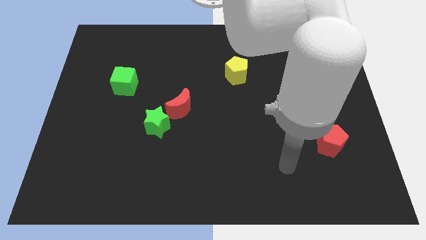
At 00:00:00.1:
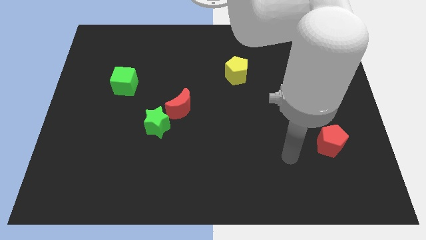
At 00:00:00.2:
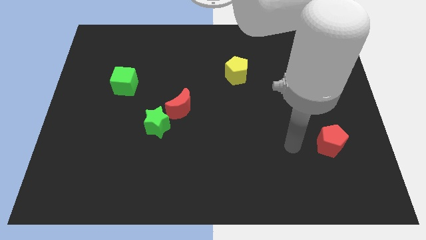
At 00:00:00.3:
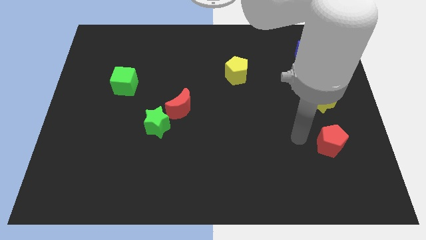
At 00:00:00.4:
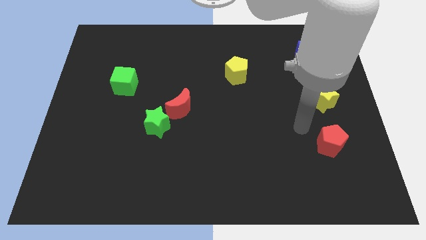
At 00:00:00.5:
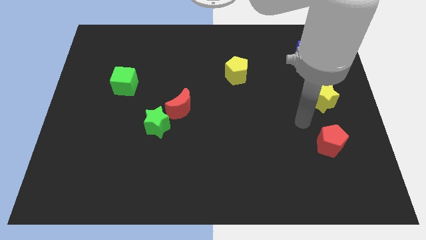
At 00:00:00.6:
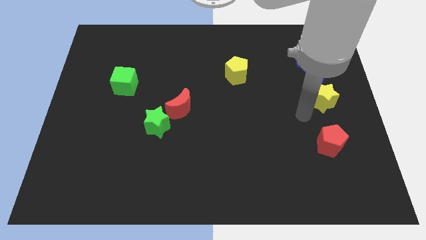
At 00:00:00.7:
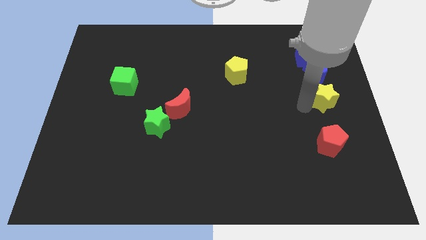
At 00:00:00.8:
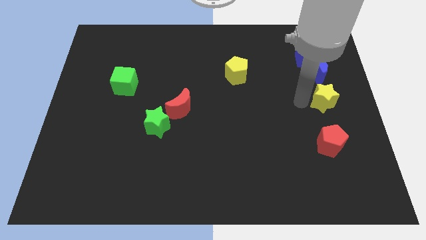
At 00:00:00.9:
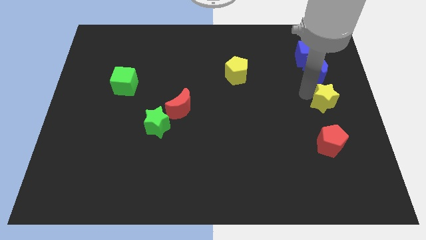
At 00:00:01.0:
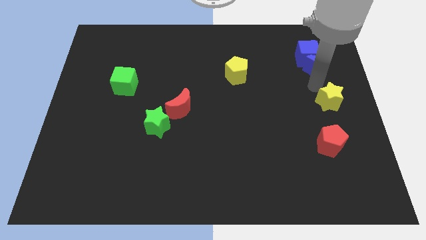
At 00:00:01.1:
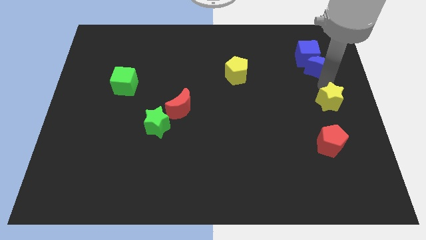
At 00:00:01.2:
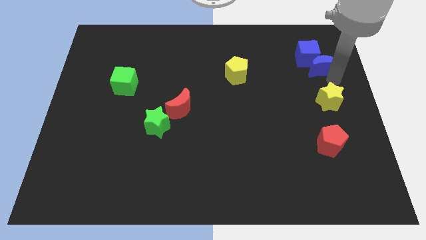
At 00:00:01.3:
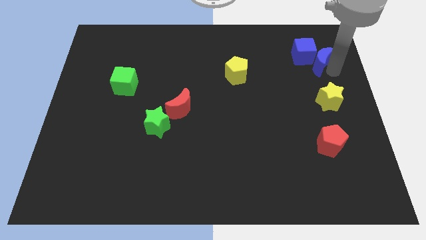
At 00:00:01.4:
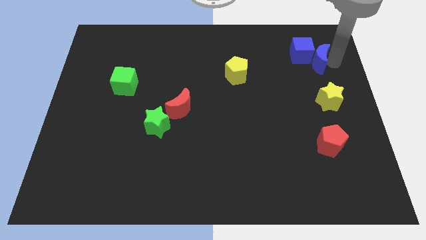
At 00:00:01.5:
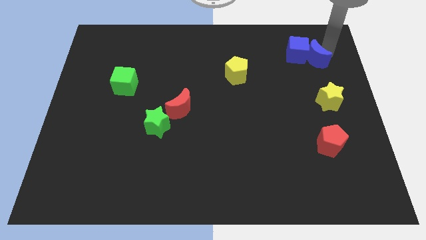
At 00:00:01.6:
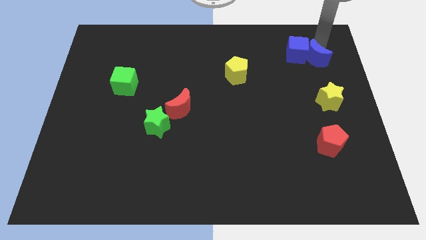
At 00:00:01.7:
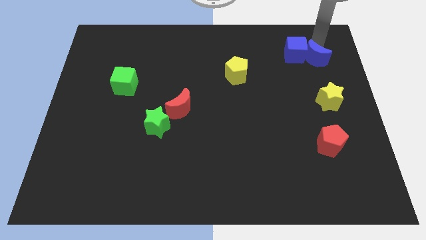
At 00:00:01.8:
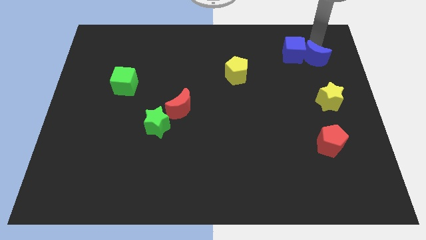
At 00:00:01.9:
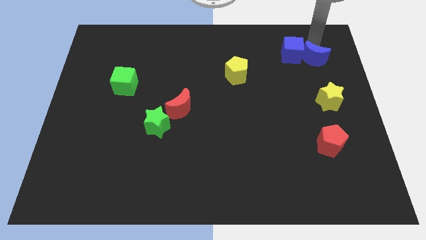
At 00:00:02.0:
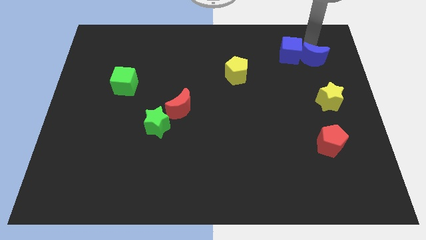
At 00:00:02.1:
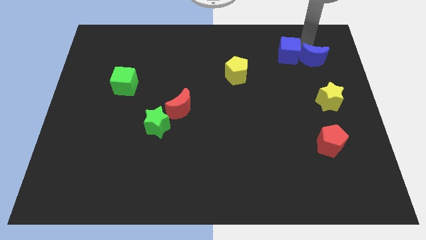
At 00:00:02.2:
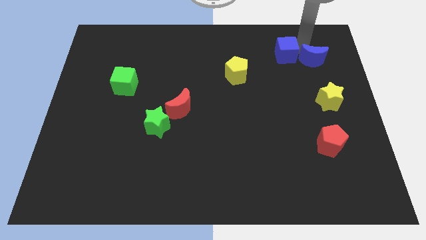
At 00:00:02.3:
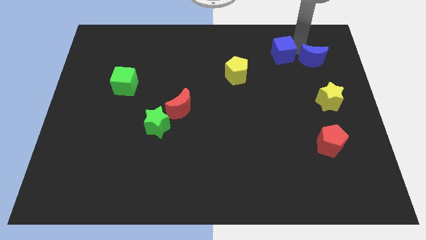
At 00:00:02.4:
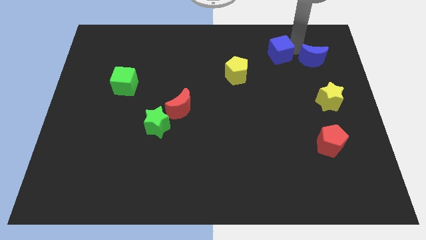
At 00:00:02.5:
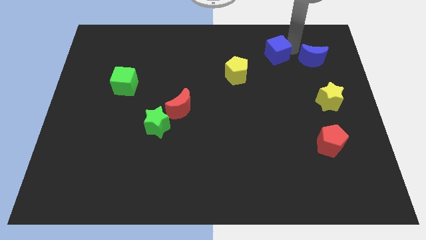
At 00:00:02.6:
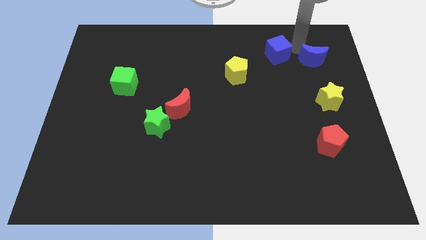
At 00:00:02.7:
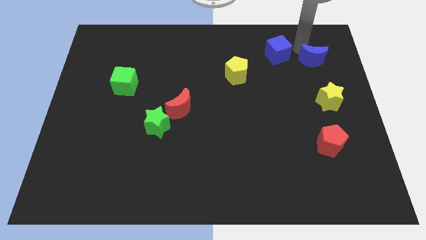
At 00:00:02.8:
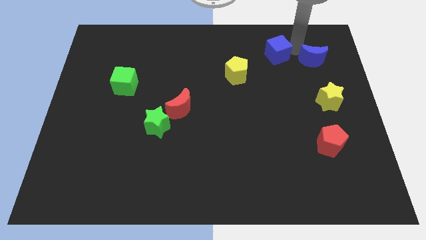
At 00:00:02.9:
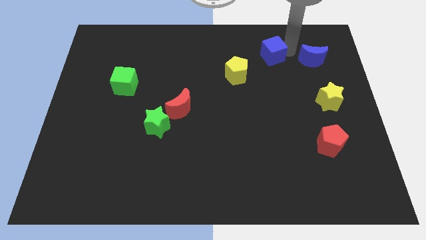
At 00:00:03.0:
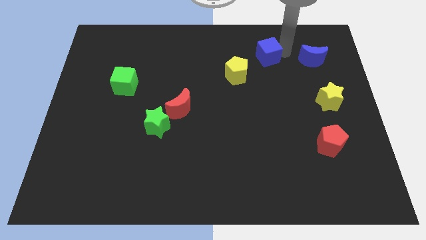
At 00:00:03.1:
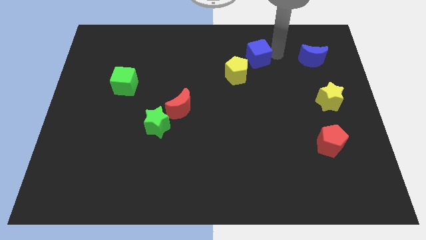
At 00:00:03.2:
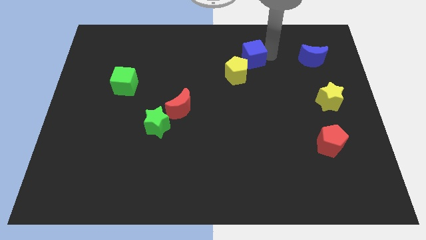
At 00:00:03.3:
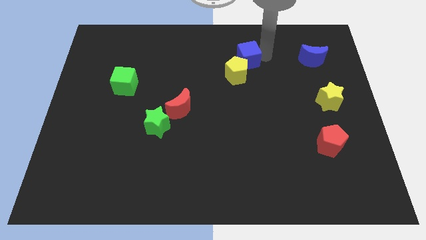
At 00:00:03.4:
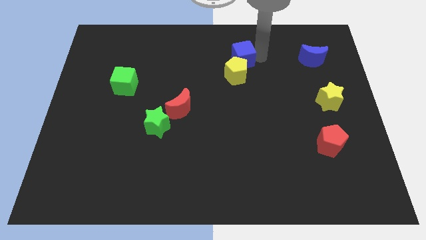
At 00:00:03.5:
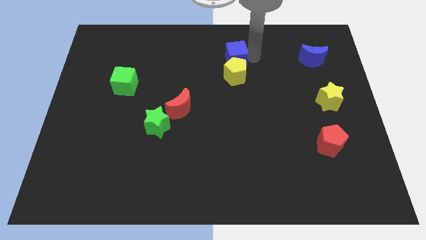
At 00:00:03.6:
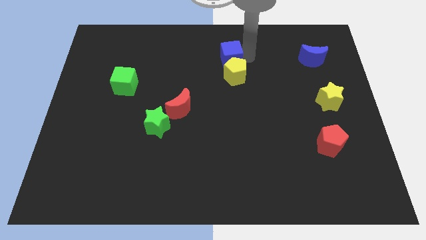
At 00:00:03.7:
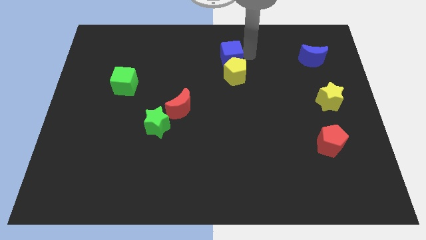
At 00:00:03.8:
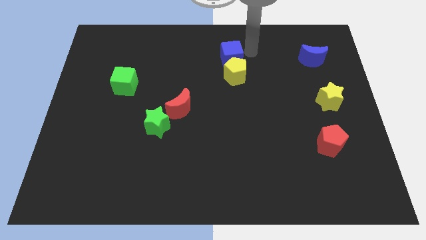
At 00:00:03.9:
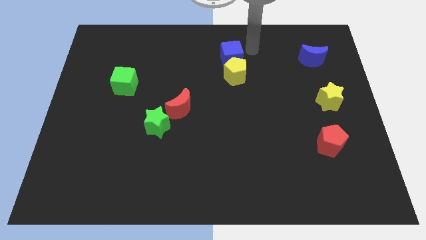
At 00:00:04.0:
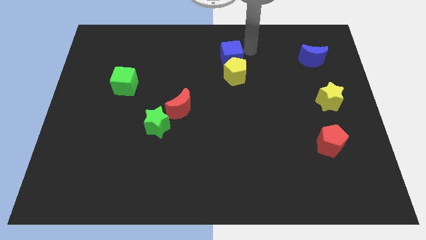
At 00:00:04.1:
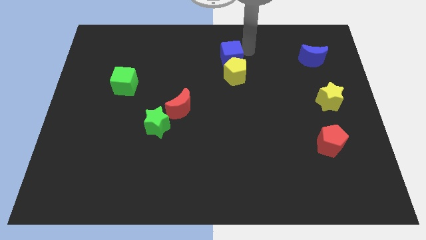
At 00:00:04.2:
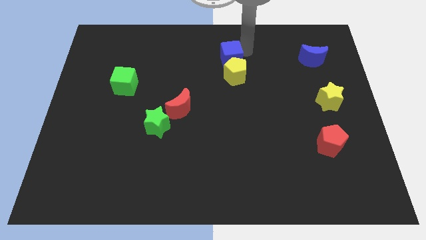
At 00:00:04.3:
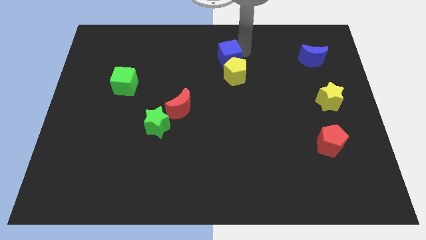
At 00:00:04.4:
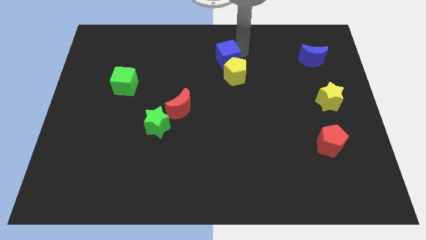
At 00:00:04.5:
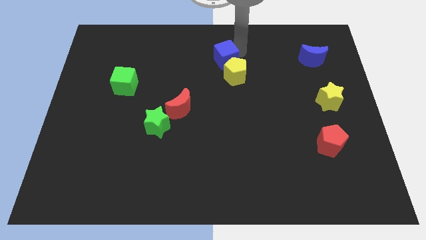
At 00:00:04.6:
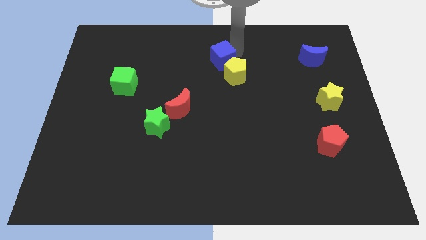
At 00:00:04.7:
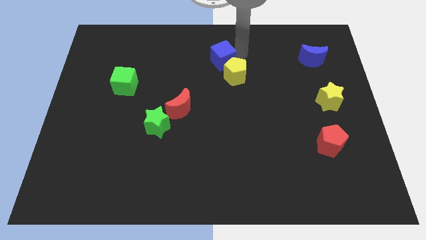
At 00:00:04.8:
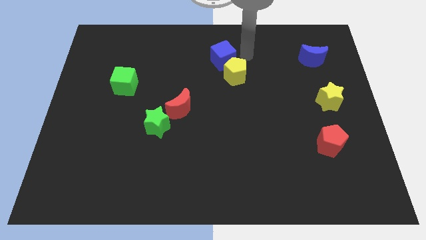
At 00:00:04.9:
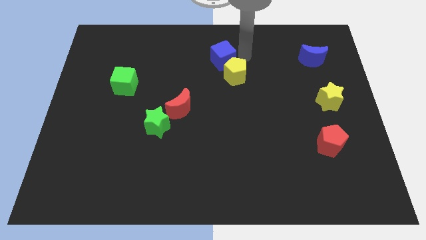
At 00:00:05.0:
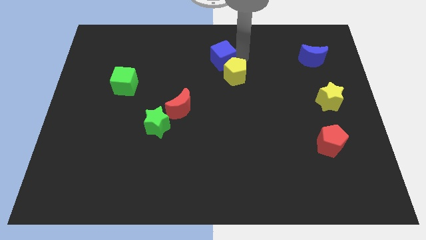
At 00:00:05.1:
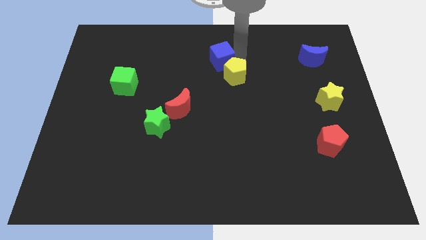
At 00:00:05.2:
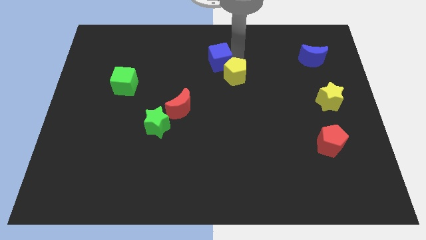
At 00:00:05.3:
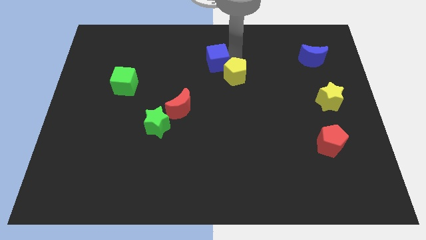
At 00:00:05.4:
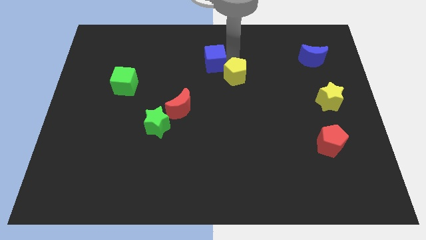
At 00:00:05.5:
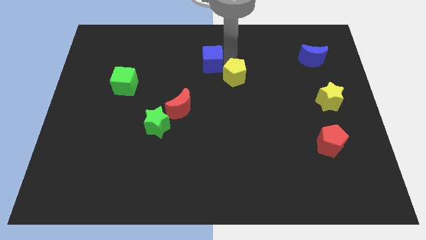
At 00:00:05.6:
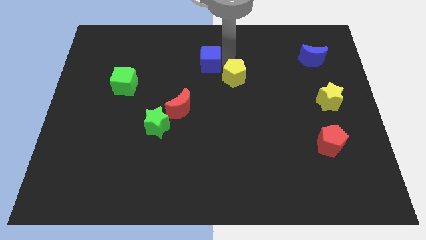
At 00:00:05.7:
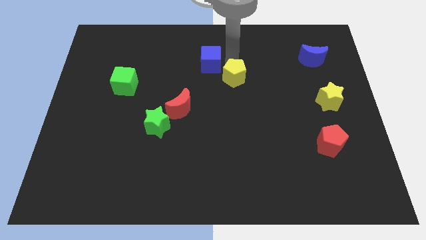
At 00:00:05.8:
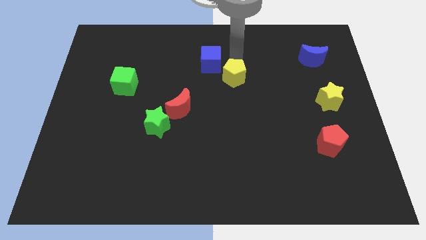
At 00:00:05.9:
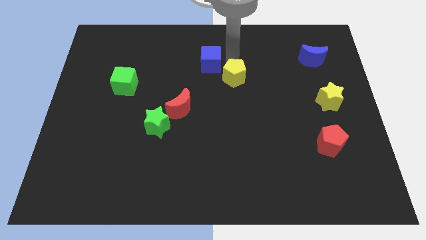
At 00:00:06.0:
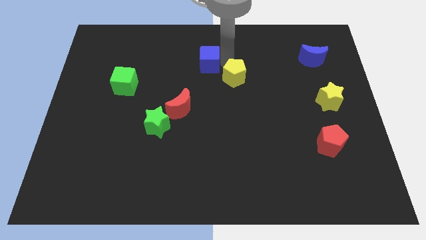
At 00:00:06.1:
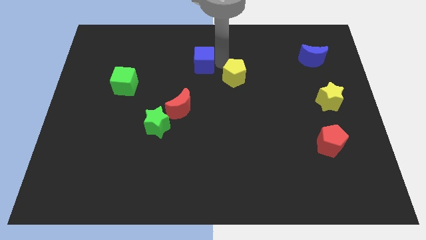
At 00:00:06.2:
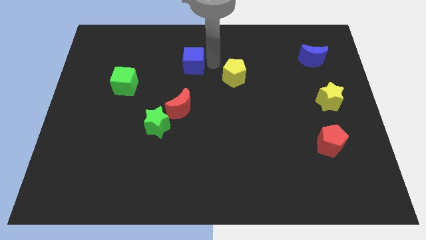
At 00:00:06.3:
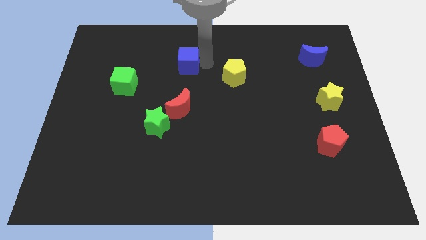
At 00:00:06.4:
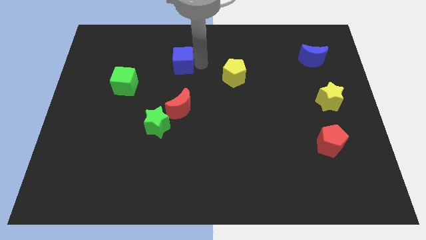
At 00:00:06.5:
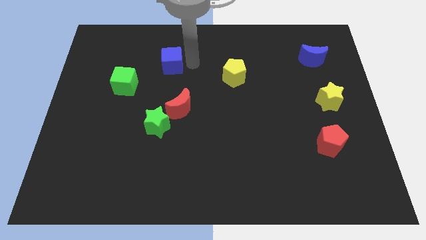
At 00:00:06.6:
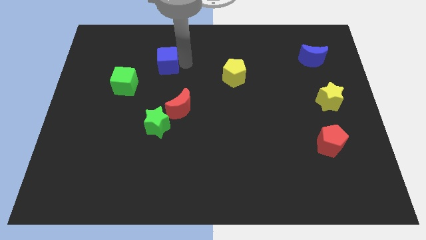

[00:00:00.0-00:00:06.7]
slide the blue cube diagonally up and to the right of the green cube

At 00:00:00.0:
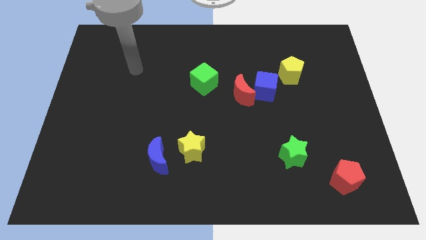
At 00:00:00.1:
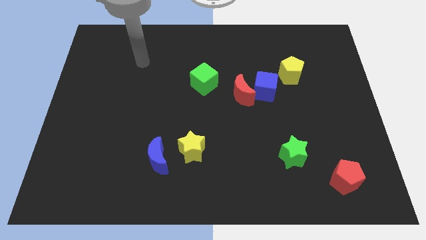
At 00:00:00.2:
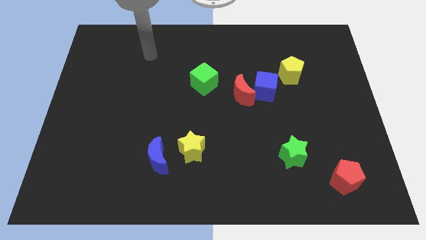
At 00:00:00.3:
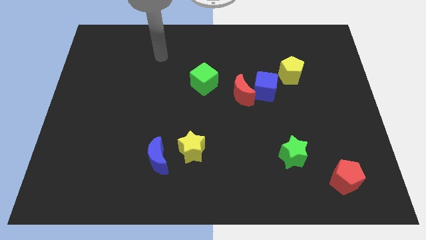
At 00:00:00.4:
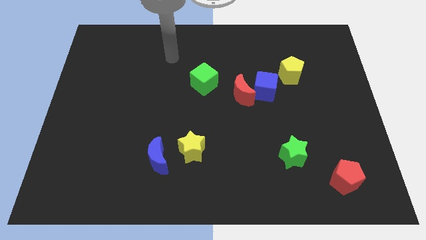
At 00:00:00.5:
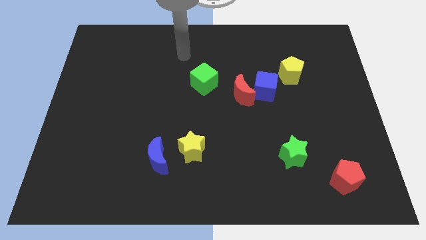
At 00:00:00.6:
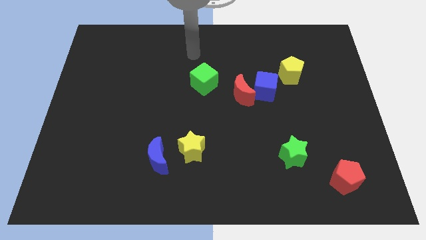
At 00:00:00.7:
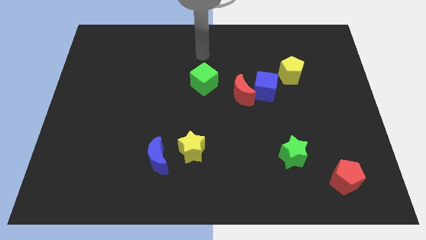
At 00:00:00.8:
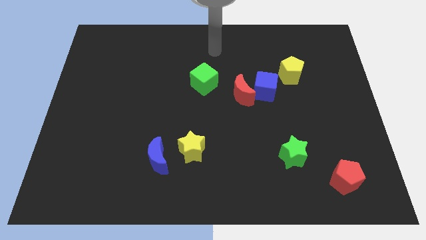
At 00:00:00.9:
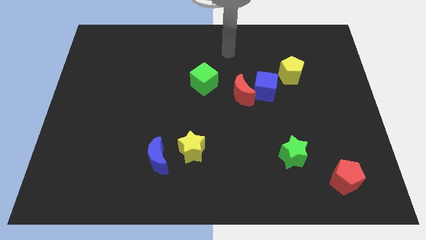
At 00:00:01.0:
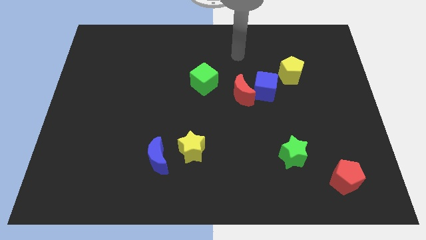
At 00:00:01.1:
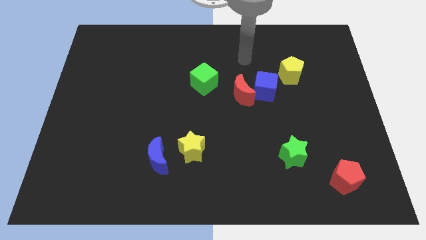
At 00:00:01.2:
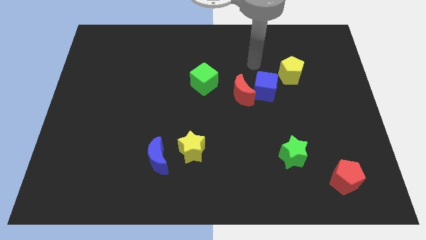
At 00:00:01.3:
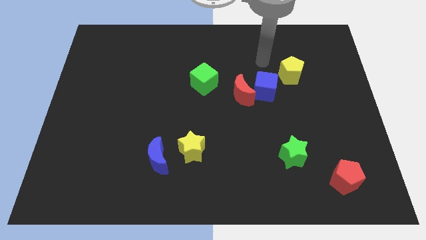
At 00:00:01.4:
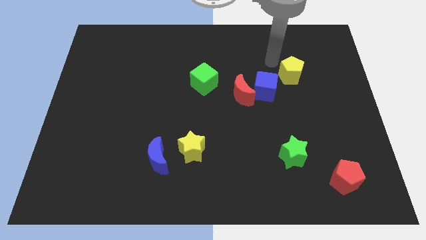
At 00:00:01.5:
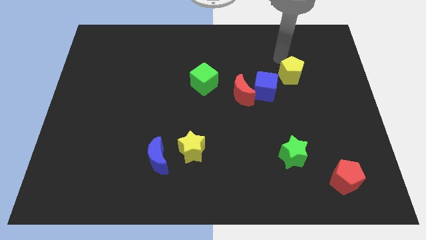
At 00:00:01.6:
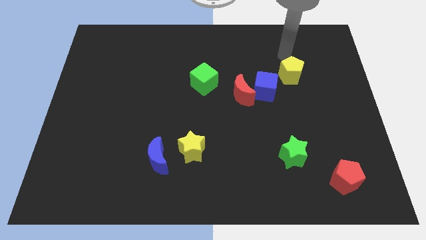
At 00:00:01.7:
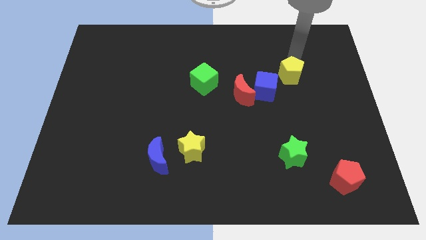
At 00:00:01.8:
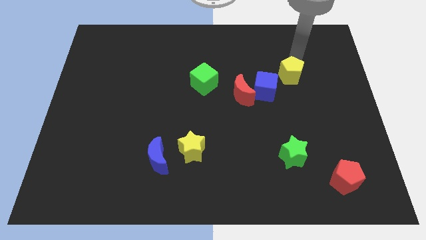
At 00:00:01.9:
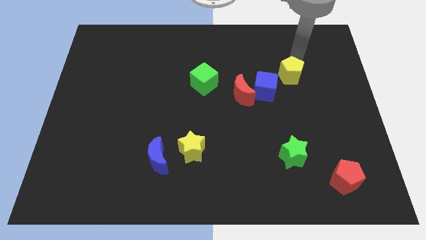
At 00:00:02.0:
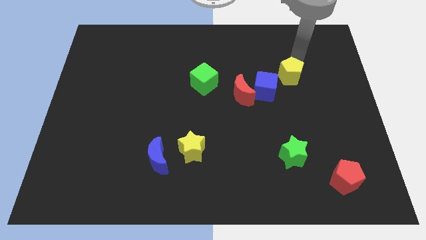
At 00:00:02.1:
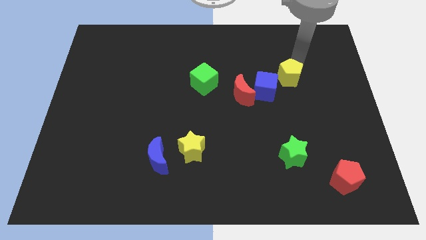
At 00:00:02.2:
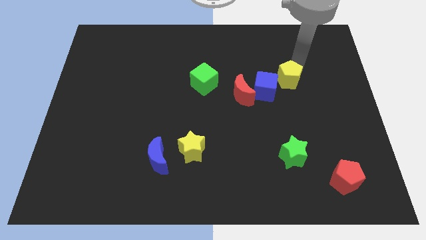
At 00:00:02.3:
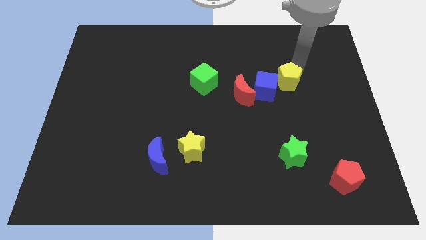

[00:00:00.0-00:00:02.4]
slide the yellow pentagon right of the red moon
